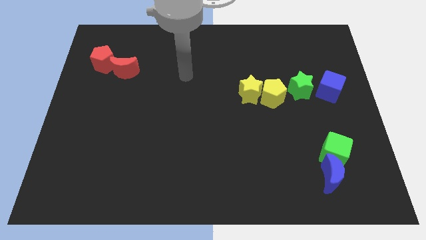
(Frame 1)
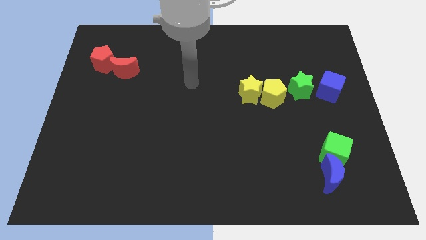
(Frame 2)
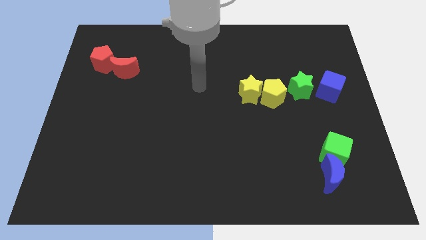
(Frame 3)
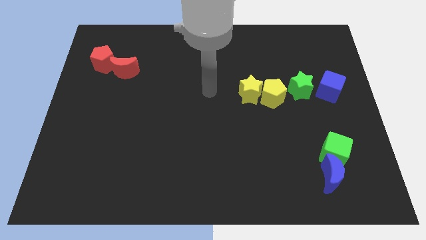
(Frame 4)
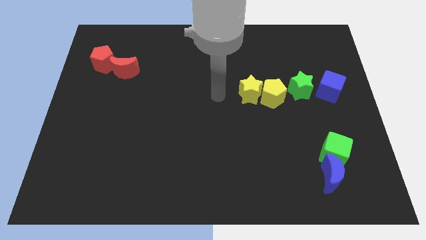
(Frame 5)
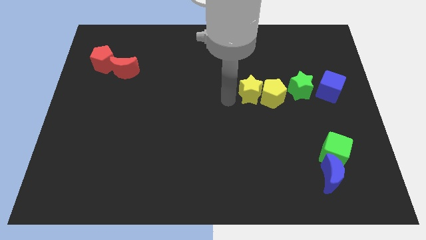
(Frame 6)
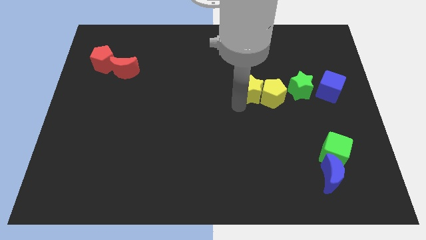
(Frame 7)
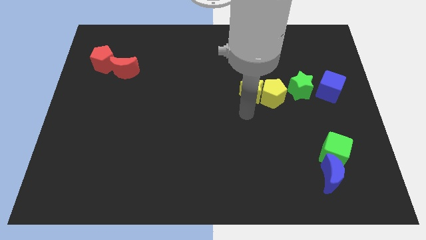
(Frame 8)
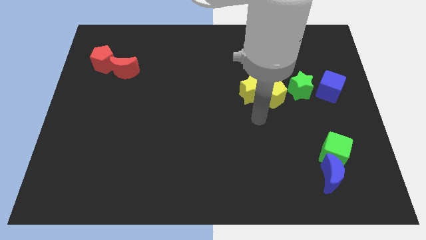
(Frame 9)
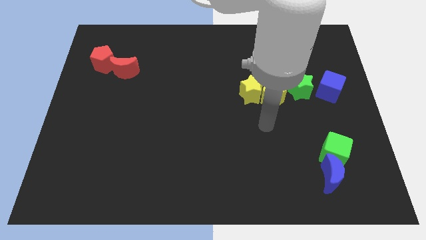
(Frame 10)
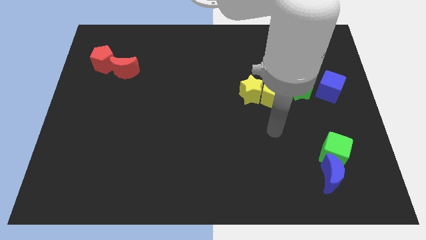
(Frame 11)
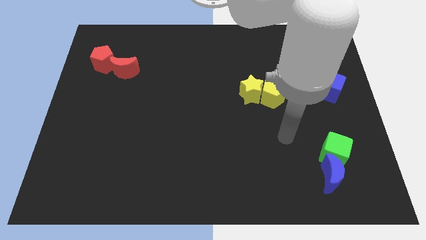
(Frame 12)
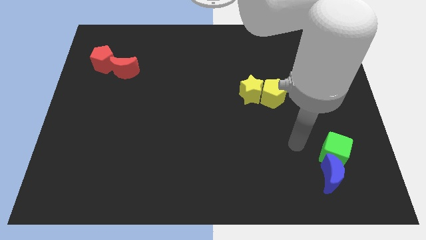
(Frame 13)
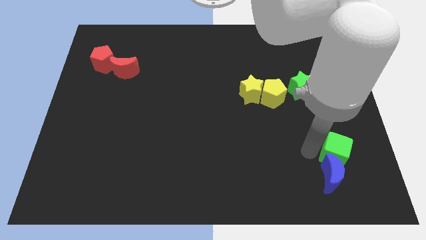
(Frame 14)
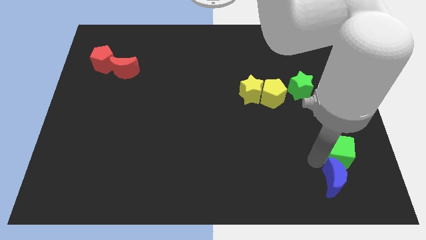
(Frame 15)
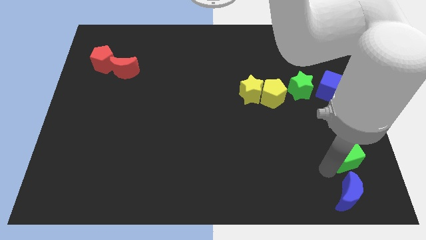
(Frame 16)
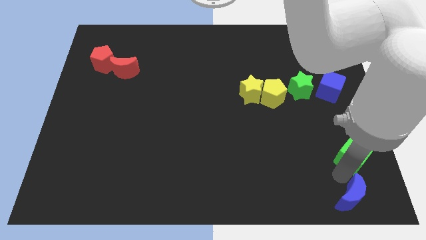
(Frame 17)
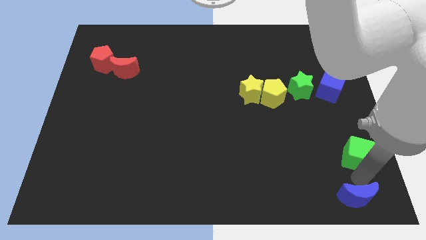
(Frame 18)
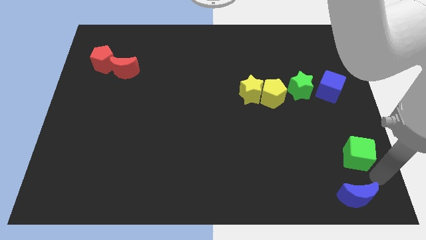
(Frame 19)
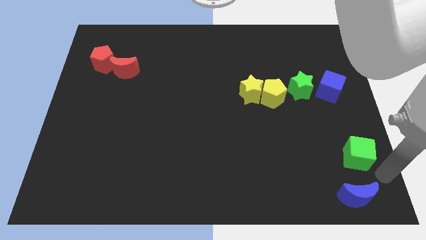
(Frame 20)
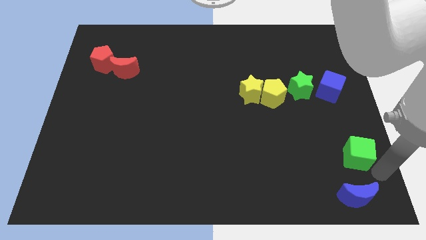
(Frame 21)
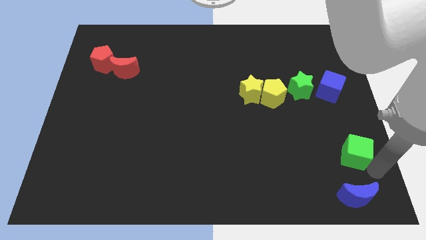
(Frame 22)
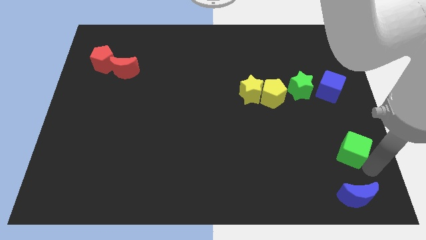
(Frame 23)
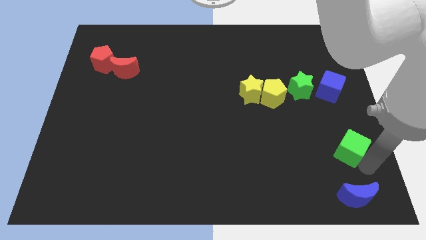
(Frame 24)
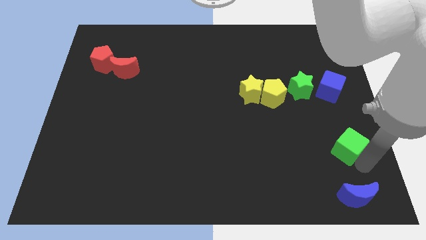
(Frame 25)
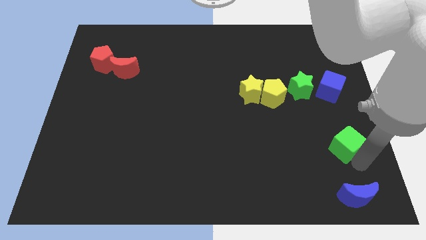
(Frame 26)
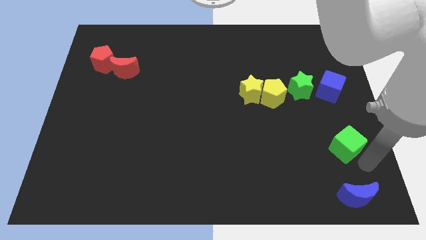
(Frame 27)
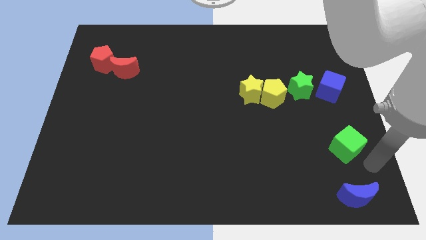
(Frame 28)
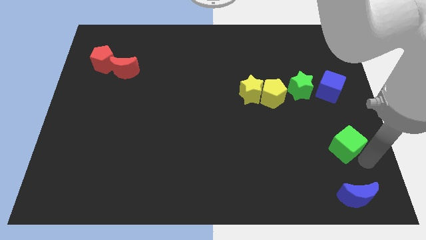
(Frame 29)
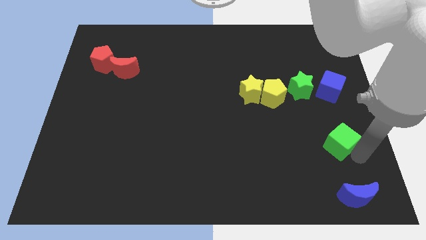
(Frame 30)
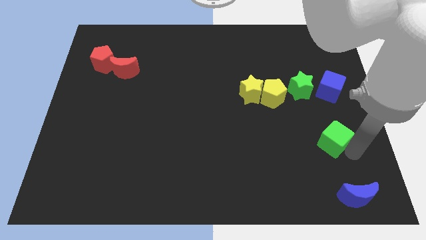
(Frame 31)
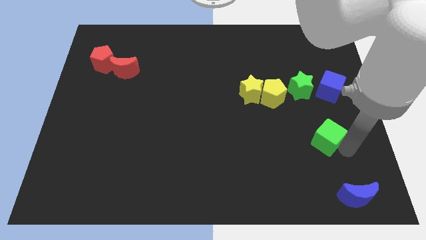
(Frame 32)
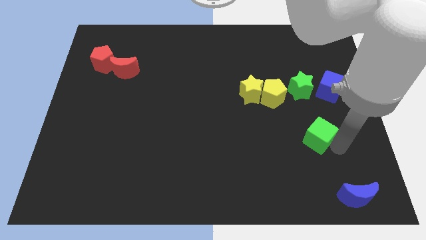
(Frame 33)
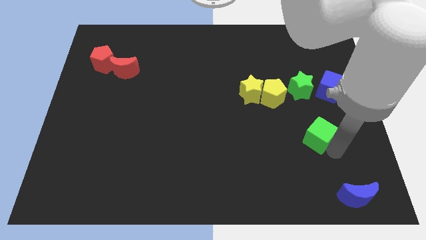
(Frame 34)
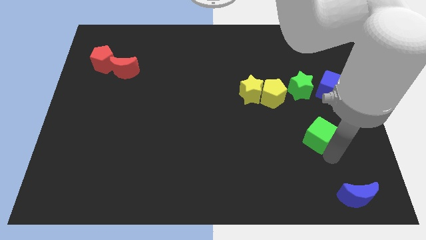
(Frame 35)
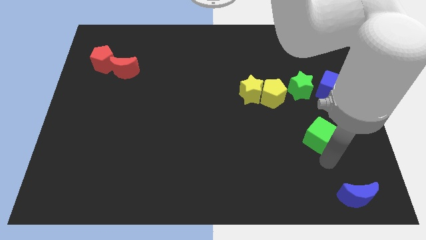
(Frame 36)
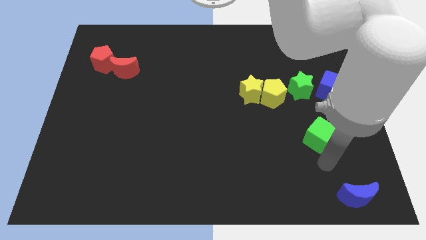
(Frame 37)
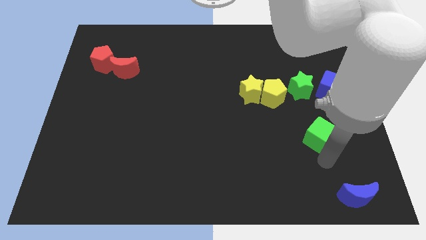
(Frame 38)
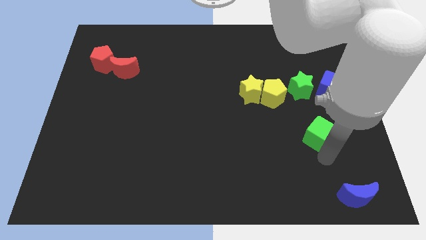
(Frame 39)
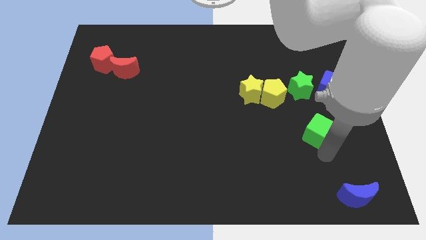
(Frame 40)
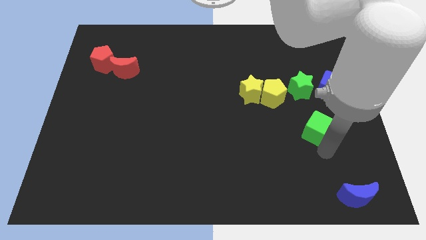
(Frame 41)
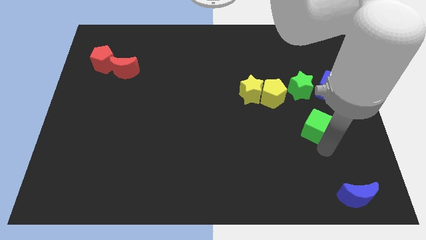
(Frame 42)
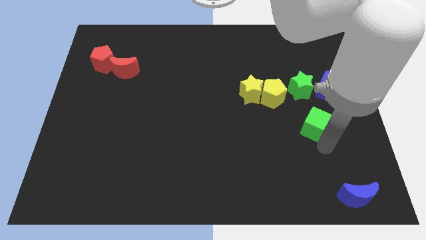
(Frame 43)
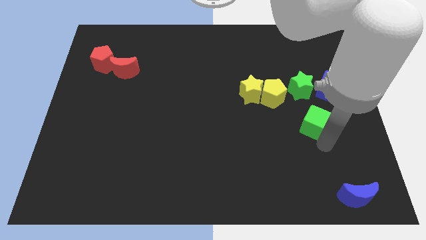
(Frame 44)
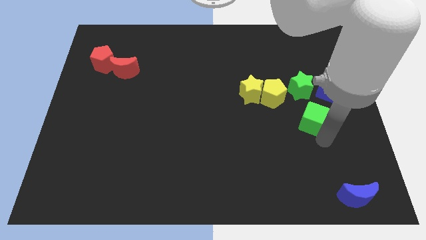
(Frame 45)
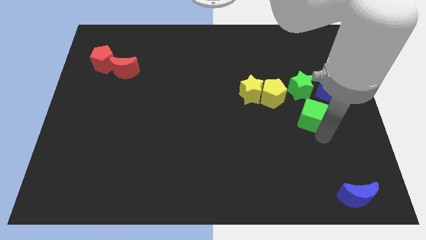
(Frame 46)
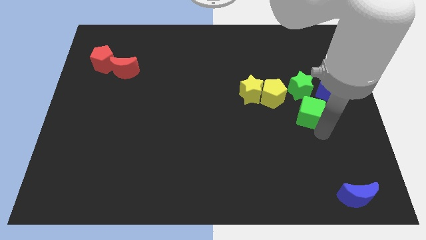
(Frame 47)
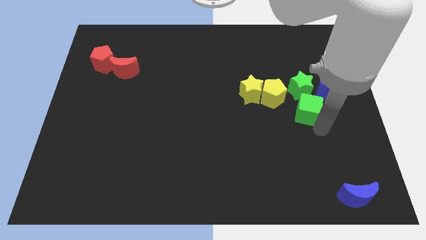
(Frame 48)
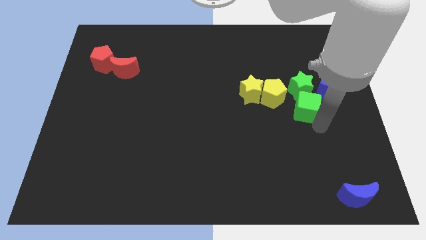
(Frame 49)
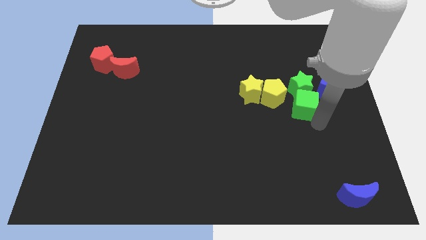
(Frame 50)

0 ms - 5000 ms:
push the green cube close to the green star

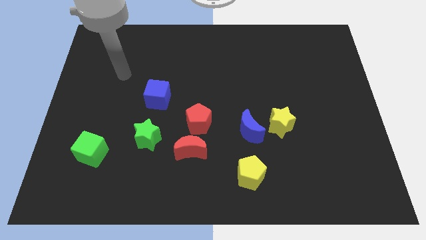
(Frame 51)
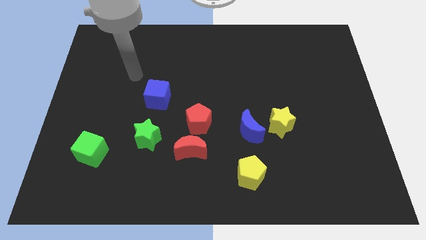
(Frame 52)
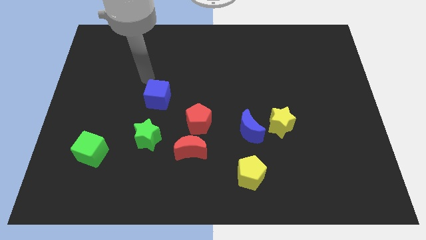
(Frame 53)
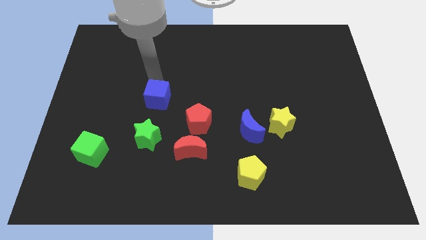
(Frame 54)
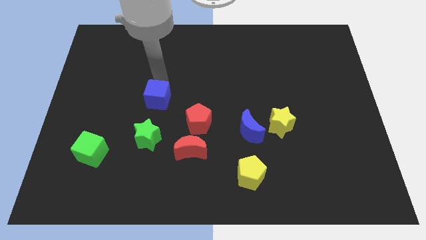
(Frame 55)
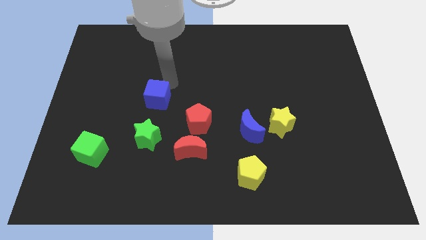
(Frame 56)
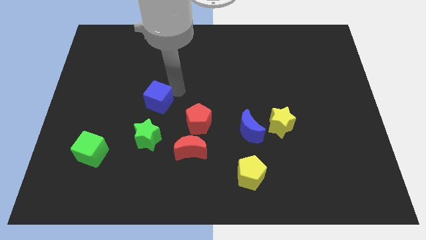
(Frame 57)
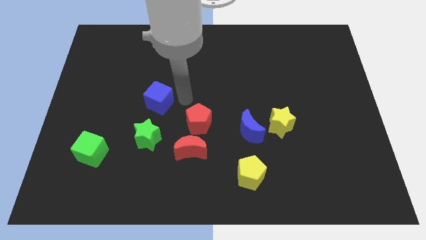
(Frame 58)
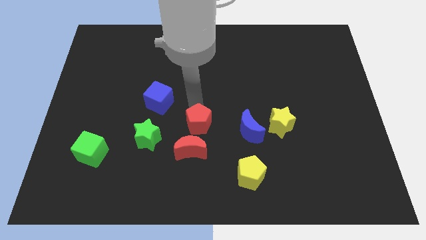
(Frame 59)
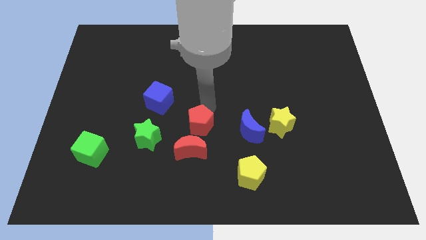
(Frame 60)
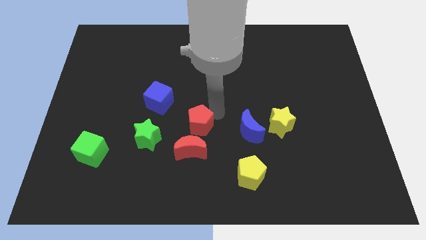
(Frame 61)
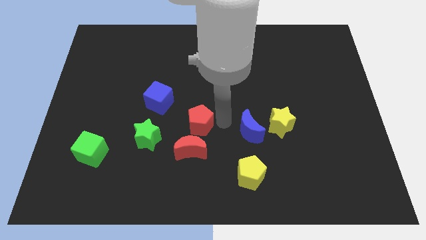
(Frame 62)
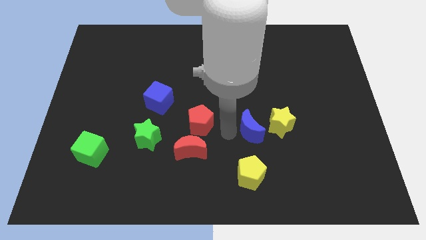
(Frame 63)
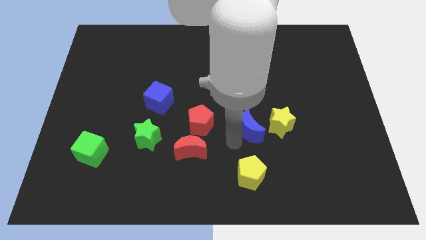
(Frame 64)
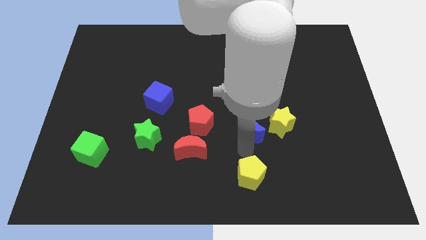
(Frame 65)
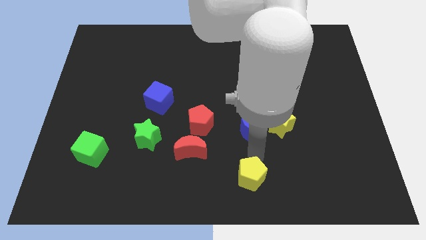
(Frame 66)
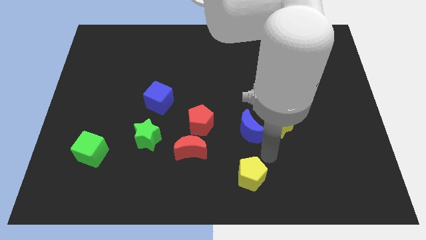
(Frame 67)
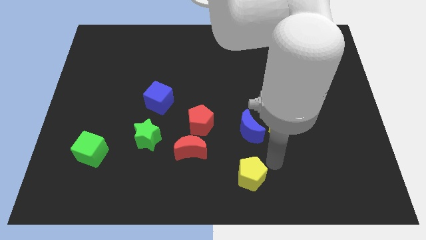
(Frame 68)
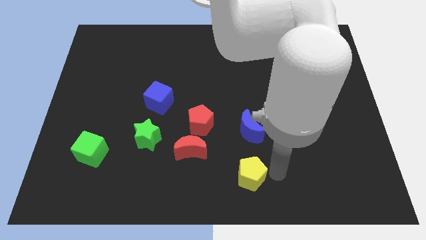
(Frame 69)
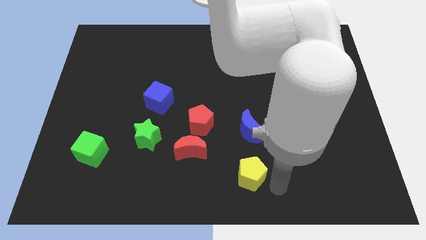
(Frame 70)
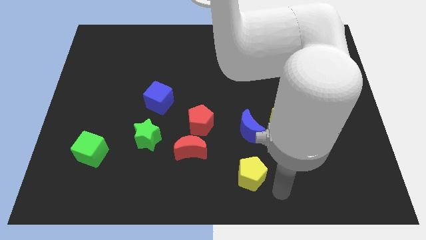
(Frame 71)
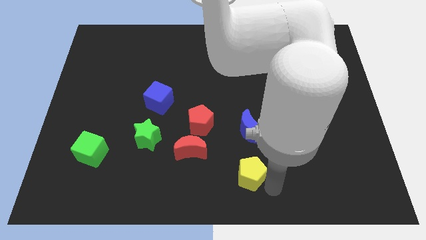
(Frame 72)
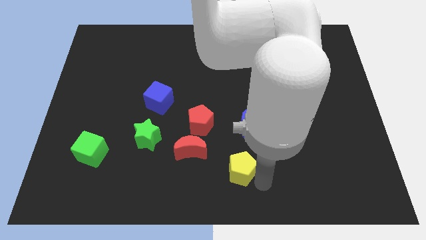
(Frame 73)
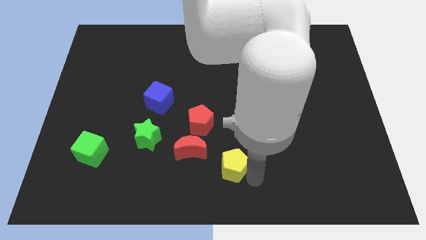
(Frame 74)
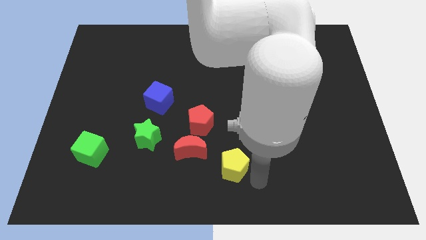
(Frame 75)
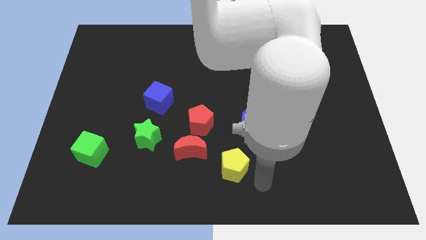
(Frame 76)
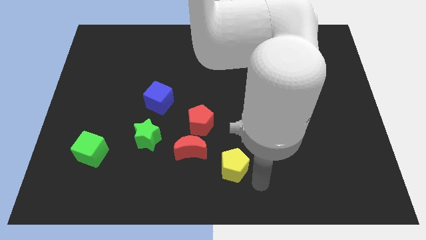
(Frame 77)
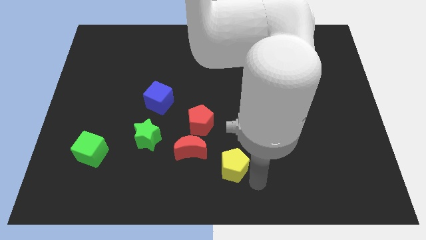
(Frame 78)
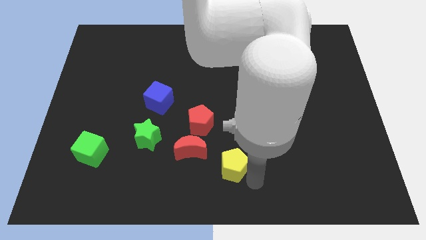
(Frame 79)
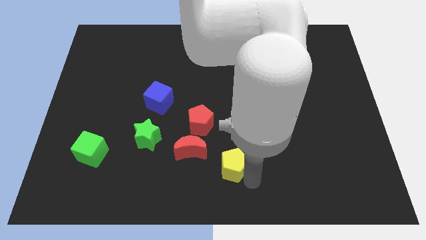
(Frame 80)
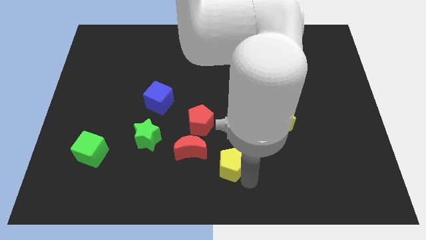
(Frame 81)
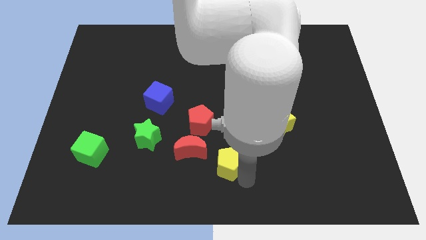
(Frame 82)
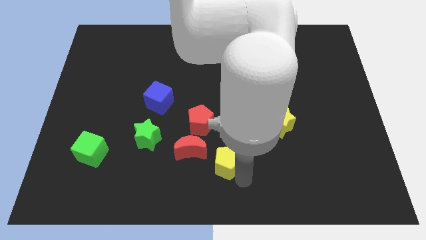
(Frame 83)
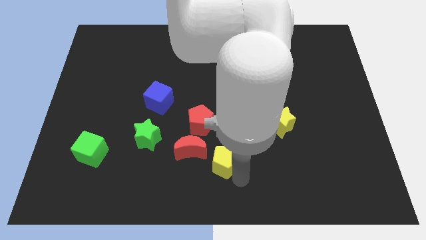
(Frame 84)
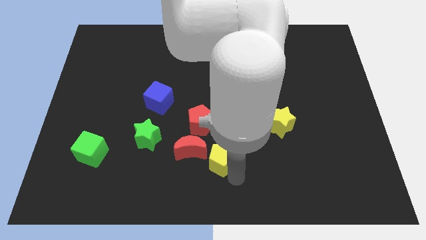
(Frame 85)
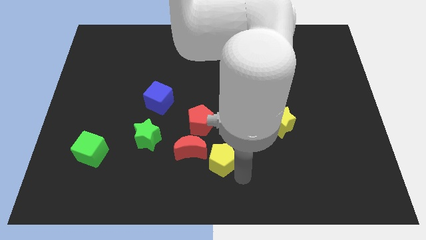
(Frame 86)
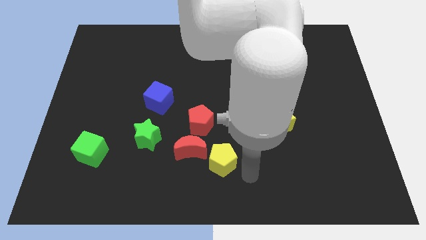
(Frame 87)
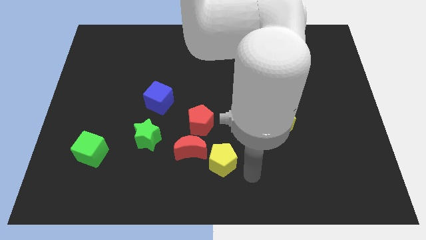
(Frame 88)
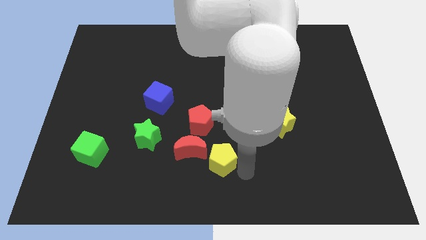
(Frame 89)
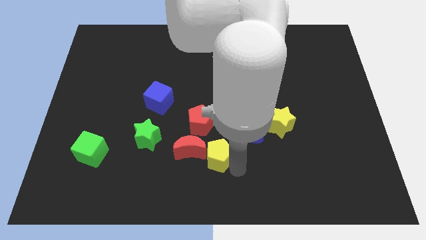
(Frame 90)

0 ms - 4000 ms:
put the yellow pentagon close to the red moon
